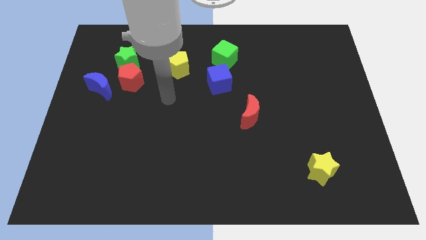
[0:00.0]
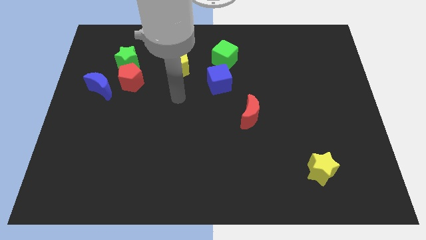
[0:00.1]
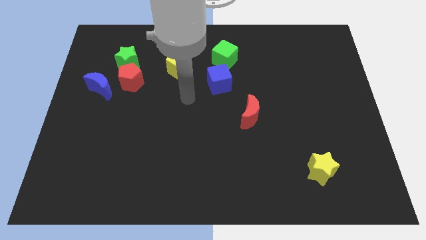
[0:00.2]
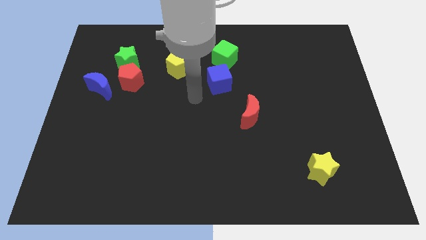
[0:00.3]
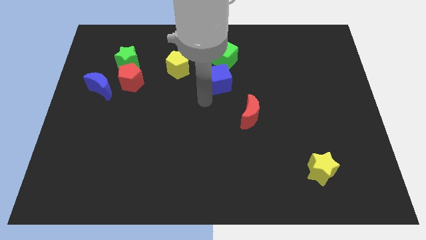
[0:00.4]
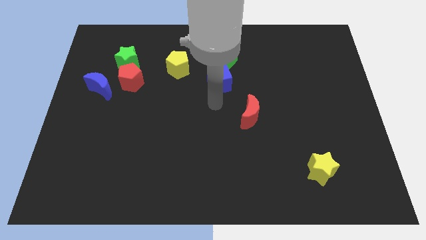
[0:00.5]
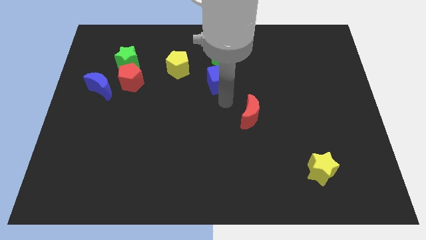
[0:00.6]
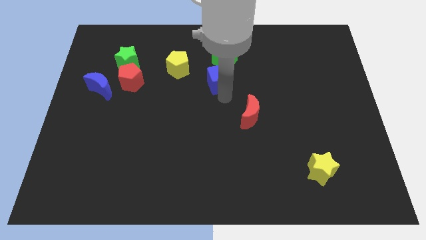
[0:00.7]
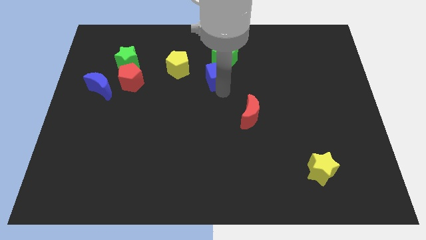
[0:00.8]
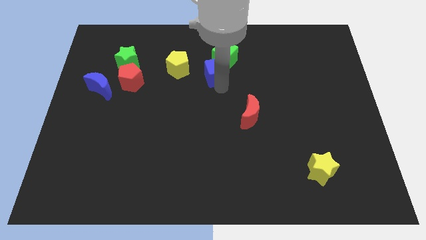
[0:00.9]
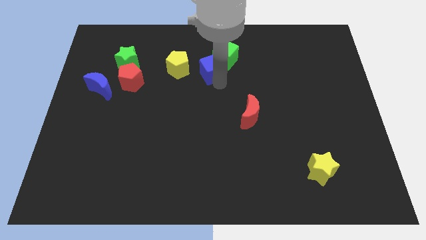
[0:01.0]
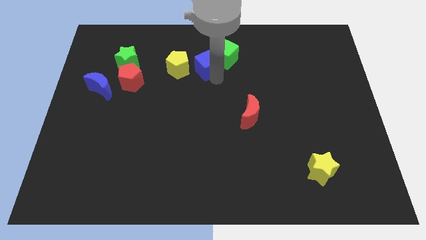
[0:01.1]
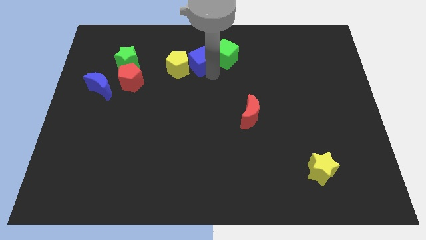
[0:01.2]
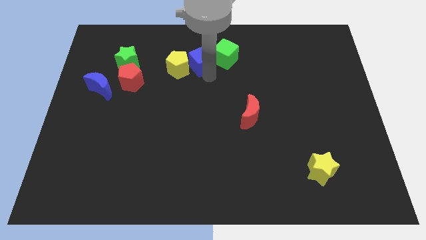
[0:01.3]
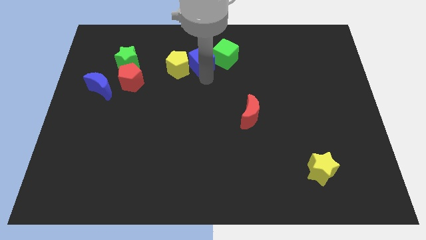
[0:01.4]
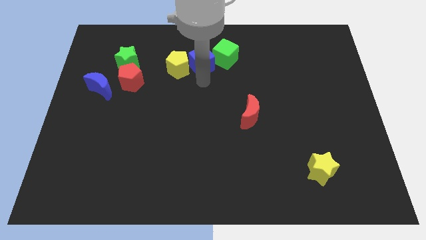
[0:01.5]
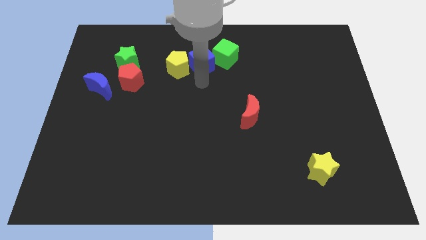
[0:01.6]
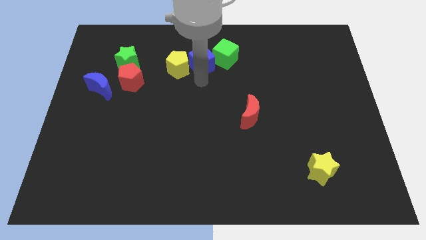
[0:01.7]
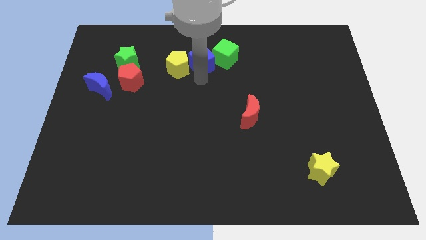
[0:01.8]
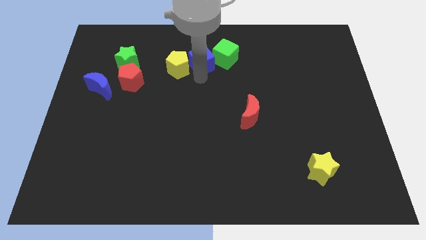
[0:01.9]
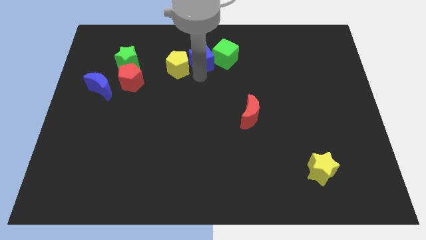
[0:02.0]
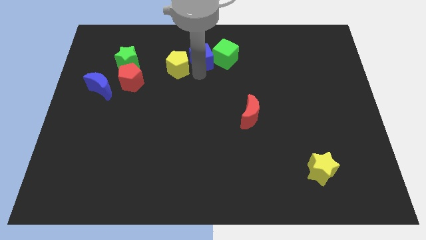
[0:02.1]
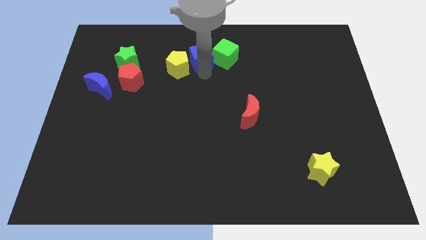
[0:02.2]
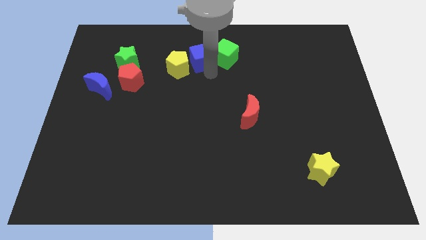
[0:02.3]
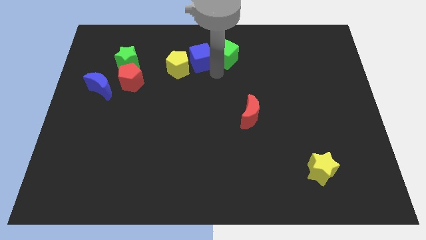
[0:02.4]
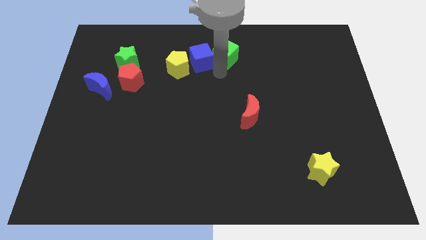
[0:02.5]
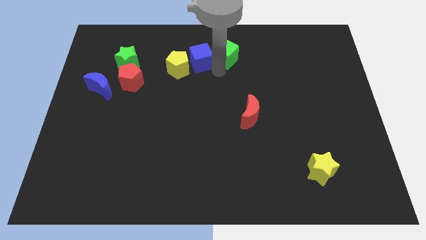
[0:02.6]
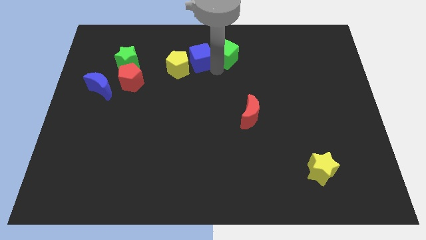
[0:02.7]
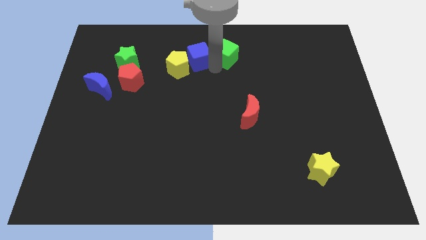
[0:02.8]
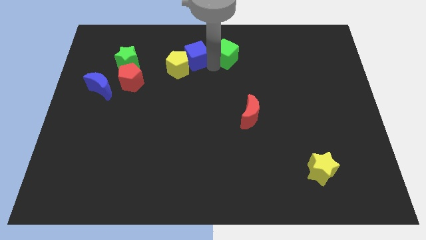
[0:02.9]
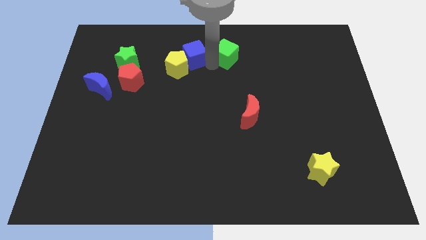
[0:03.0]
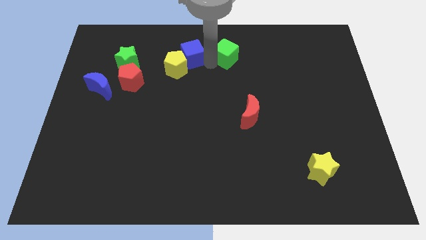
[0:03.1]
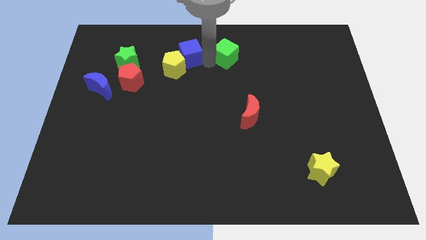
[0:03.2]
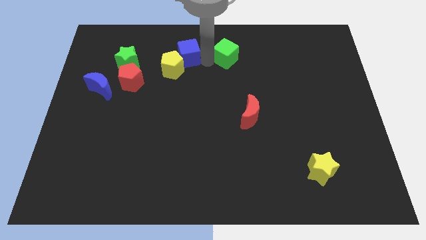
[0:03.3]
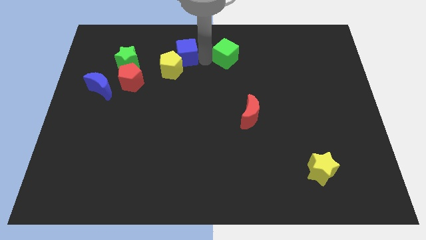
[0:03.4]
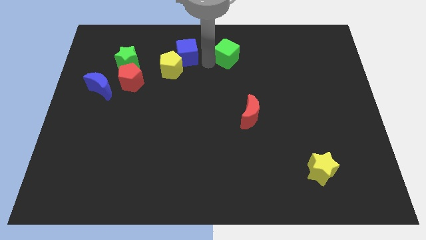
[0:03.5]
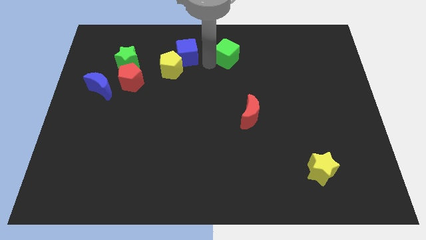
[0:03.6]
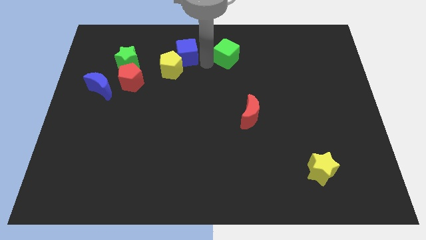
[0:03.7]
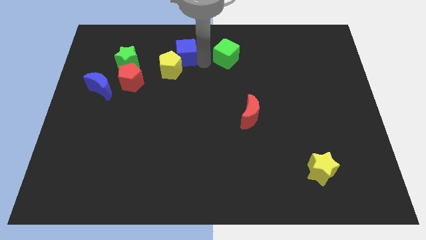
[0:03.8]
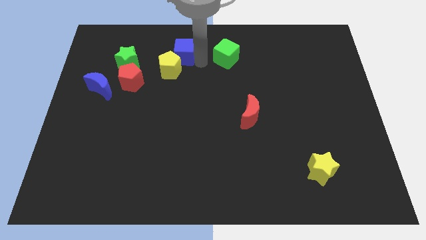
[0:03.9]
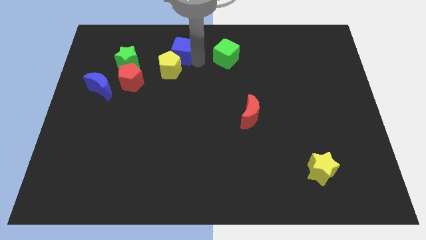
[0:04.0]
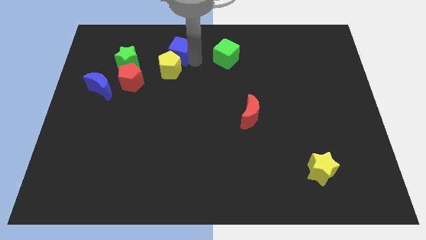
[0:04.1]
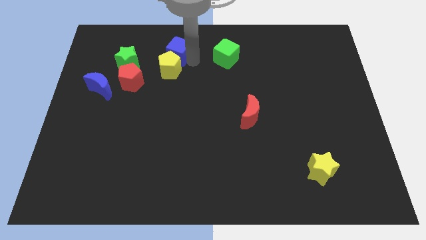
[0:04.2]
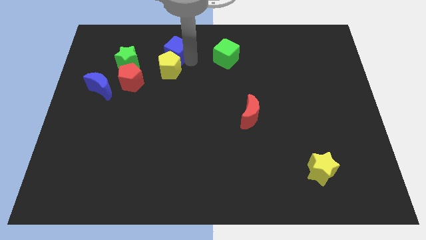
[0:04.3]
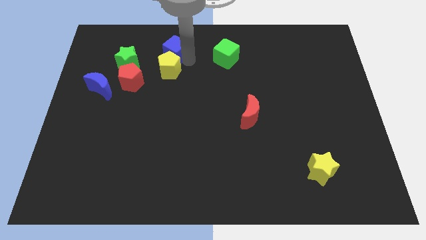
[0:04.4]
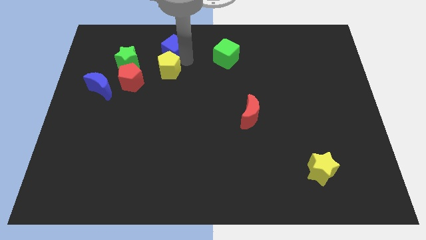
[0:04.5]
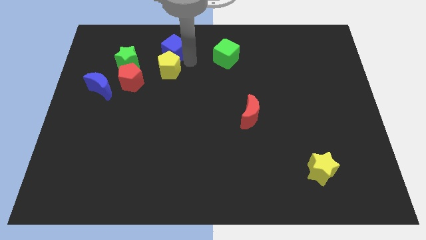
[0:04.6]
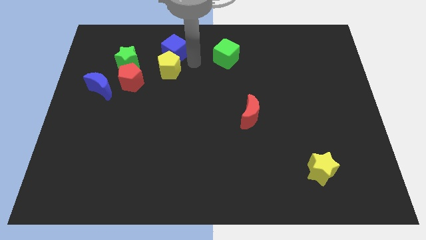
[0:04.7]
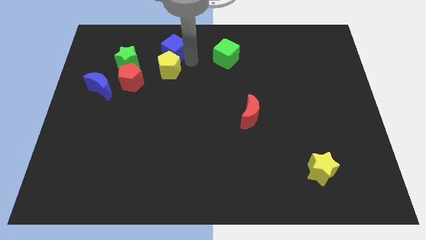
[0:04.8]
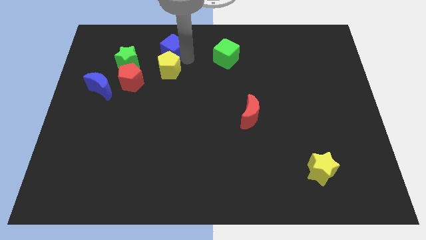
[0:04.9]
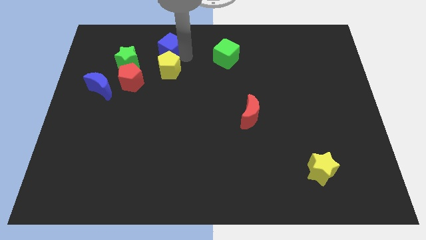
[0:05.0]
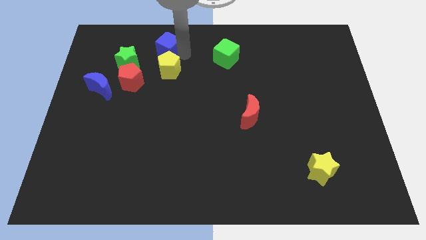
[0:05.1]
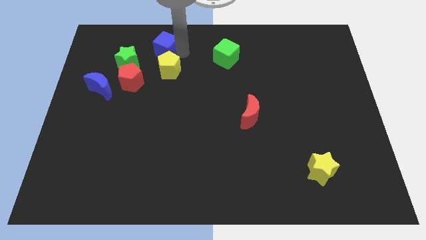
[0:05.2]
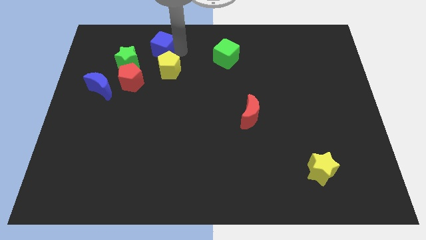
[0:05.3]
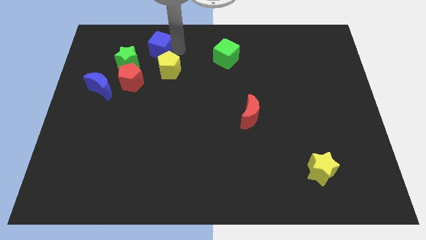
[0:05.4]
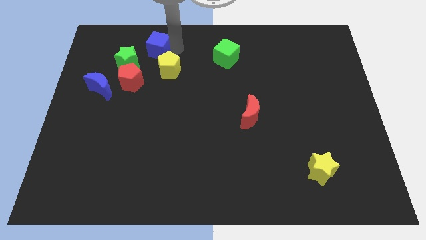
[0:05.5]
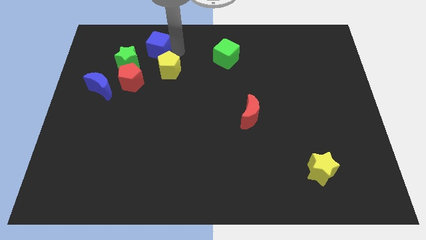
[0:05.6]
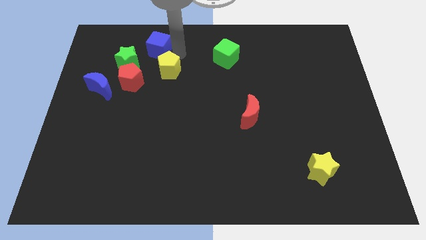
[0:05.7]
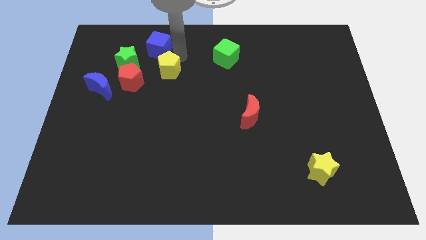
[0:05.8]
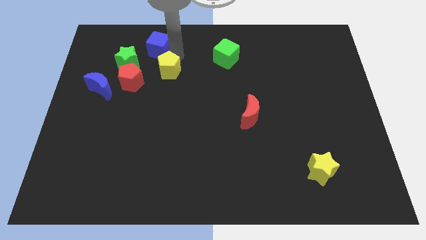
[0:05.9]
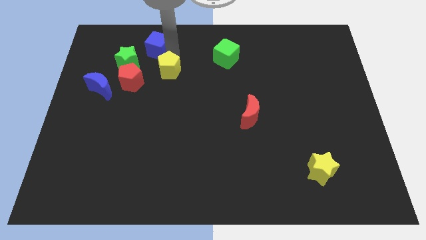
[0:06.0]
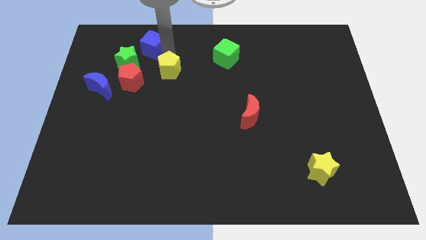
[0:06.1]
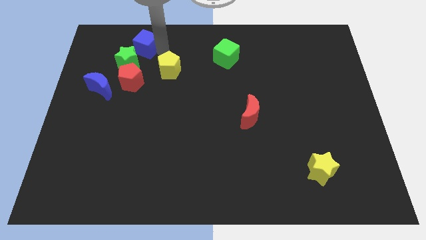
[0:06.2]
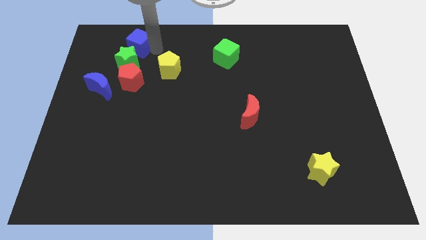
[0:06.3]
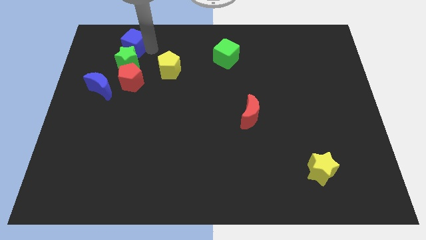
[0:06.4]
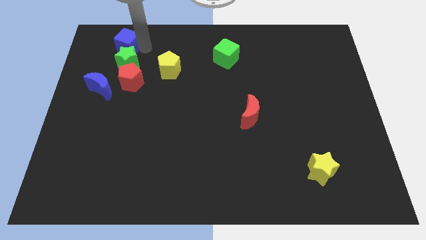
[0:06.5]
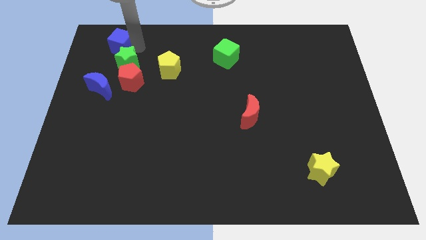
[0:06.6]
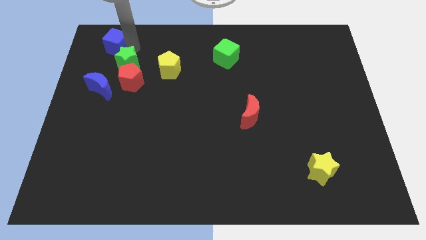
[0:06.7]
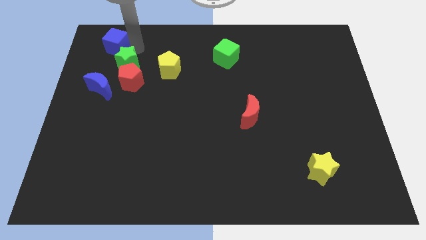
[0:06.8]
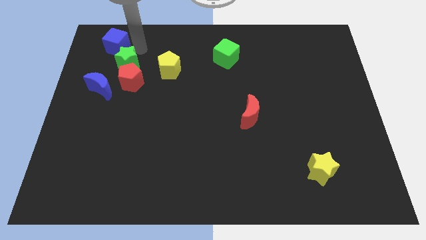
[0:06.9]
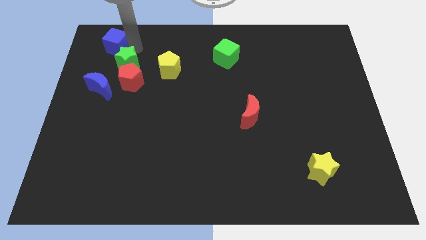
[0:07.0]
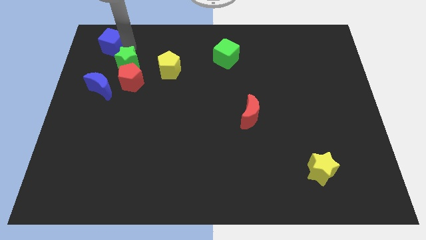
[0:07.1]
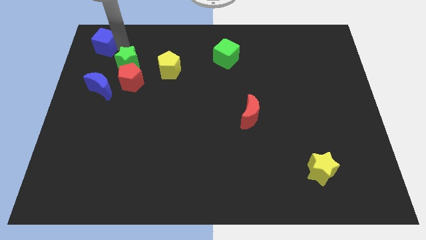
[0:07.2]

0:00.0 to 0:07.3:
move the blue cube to the top left
